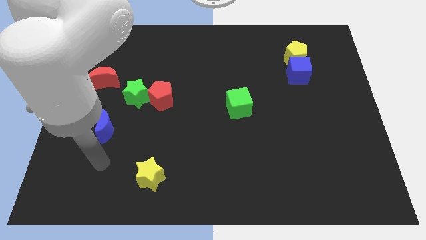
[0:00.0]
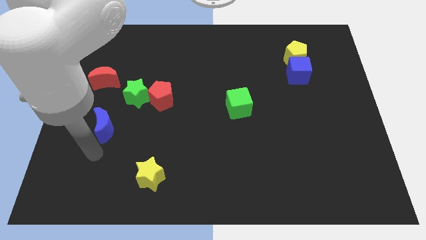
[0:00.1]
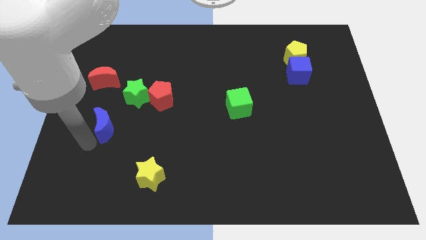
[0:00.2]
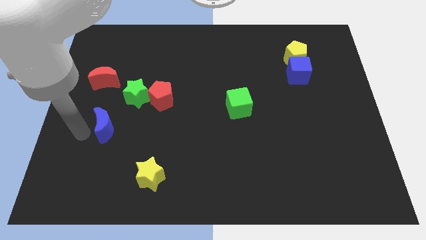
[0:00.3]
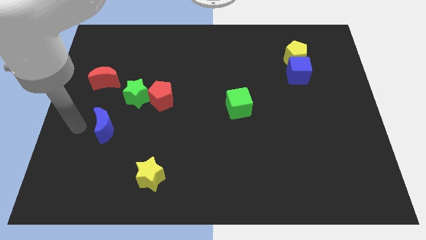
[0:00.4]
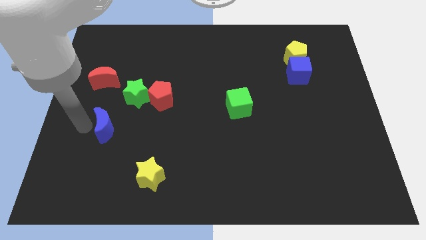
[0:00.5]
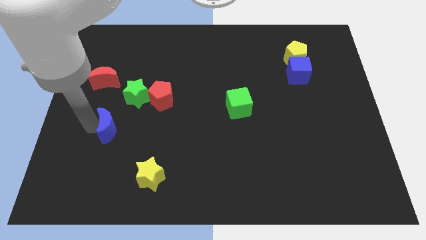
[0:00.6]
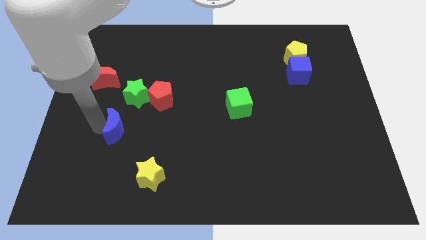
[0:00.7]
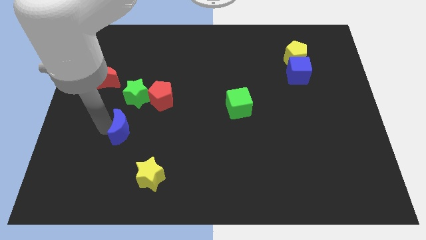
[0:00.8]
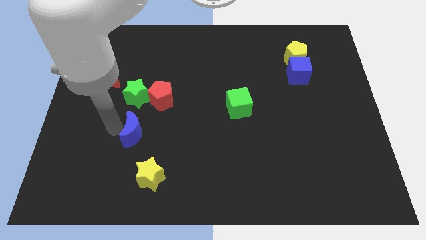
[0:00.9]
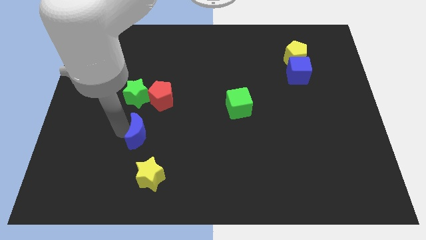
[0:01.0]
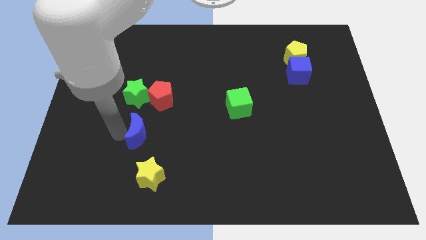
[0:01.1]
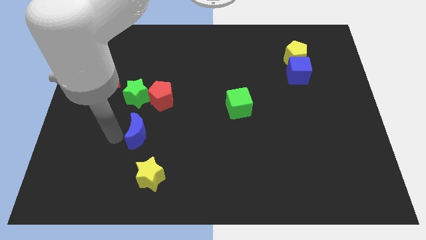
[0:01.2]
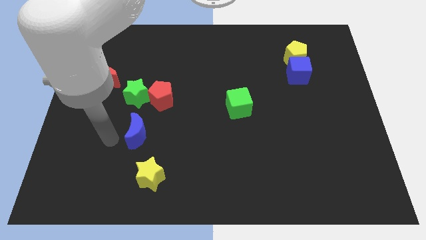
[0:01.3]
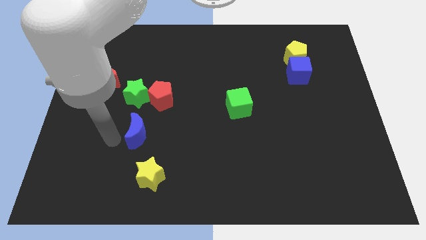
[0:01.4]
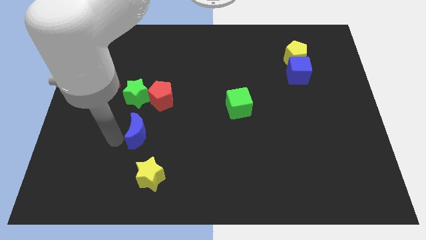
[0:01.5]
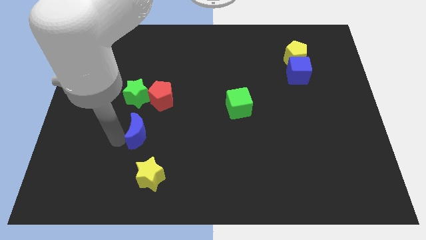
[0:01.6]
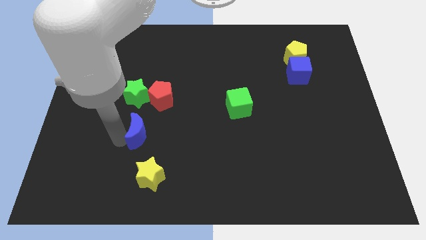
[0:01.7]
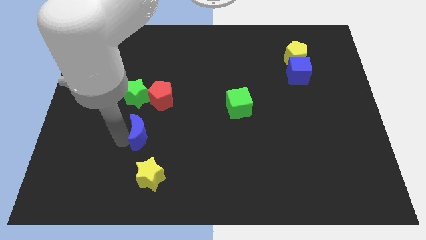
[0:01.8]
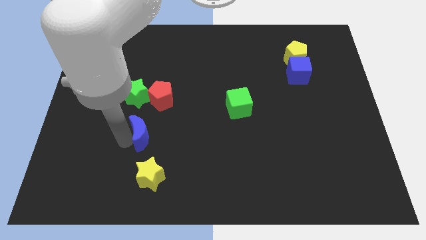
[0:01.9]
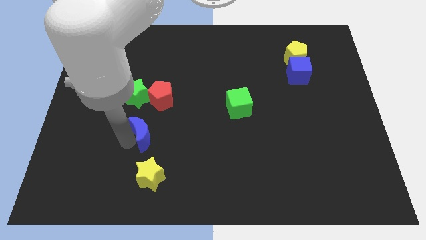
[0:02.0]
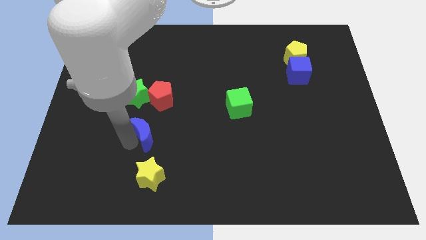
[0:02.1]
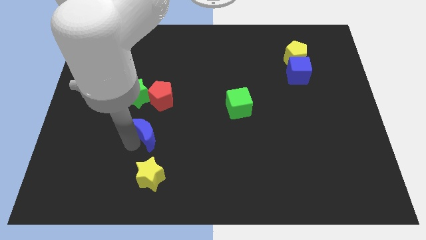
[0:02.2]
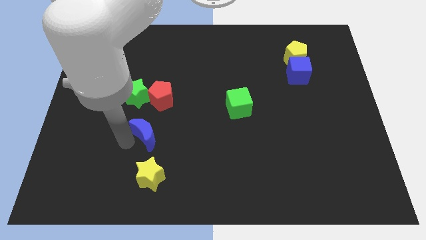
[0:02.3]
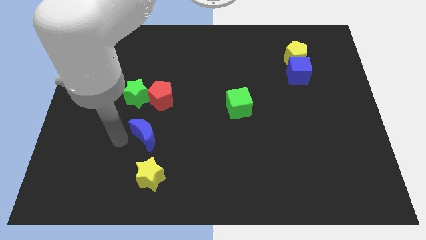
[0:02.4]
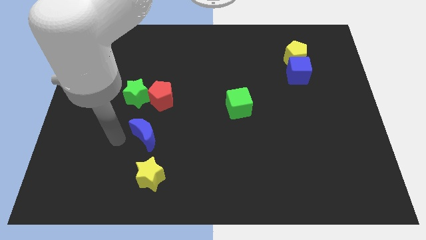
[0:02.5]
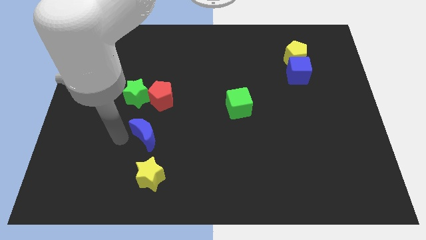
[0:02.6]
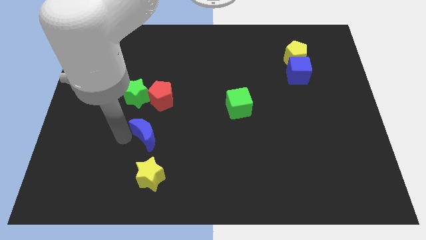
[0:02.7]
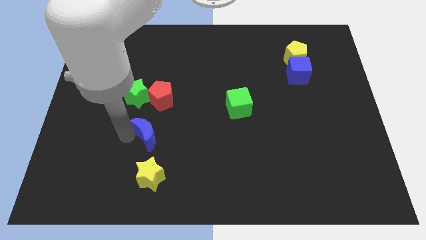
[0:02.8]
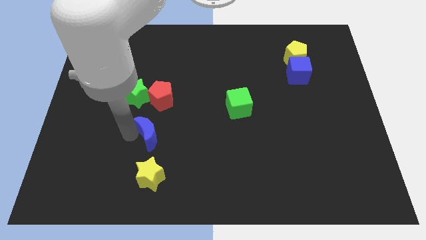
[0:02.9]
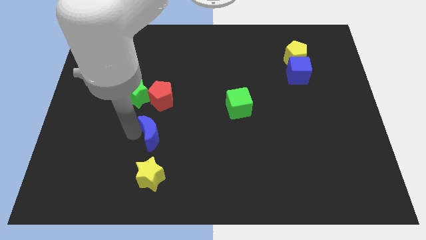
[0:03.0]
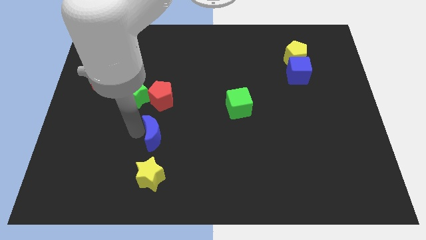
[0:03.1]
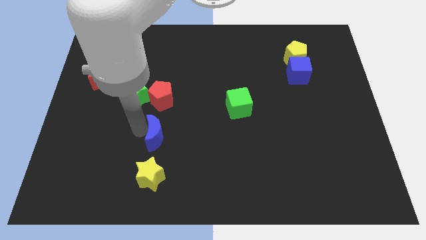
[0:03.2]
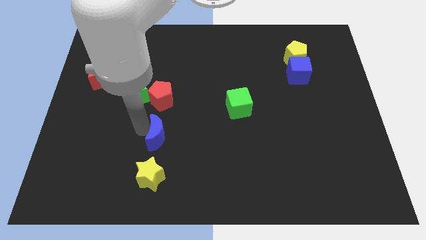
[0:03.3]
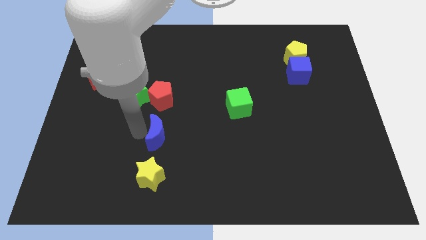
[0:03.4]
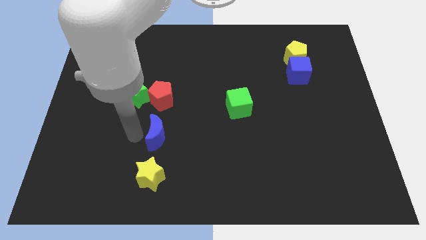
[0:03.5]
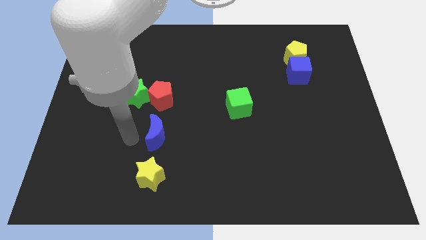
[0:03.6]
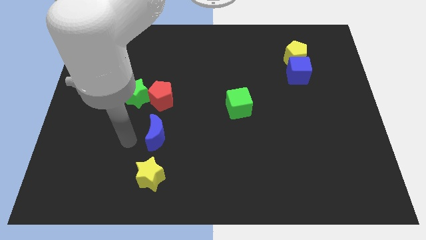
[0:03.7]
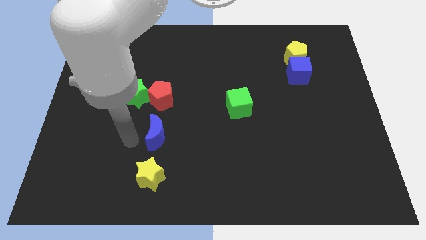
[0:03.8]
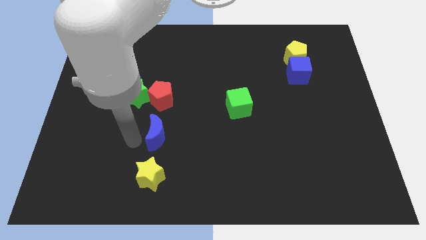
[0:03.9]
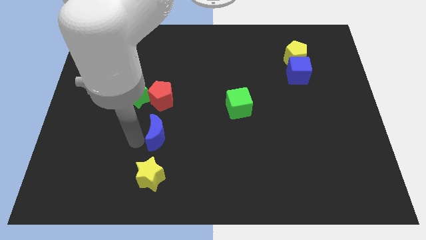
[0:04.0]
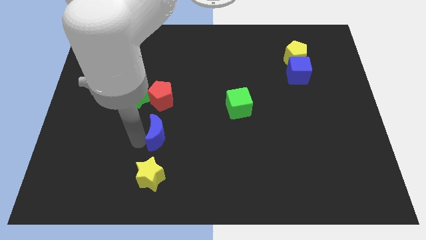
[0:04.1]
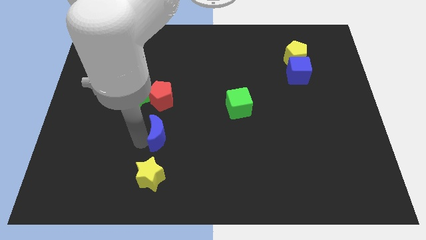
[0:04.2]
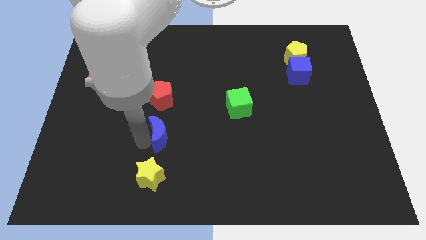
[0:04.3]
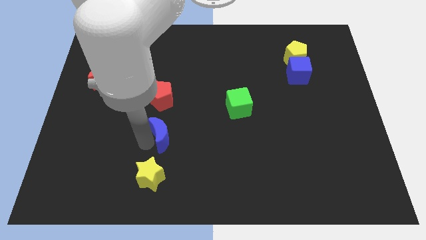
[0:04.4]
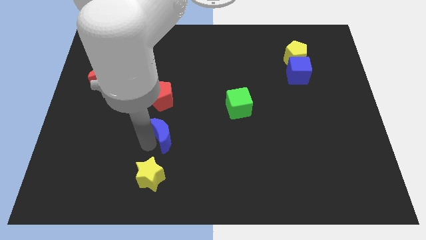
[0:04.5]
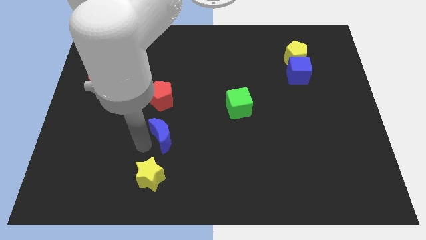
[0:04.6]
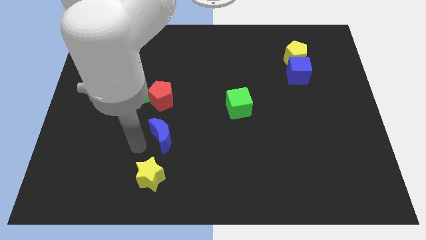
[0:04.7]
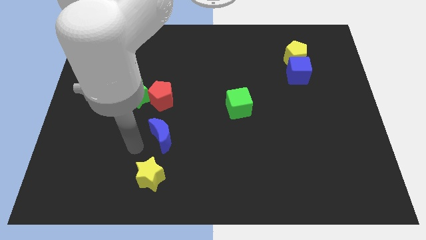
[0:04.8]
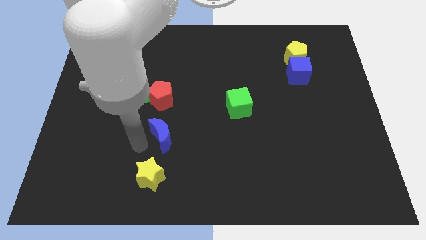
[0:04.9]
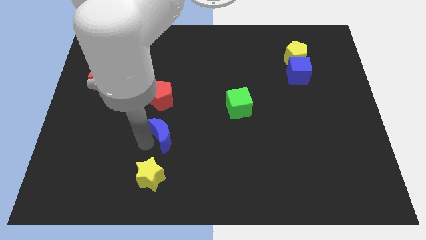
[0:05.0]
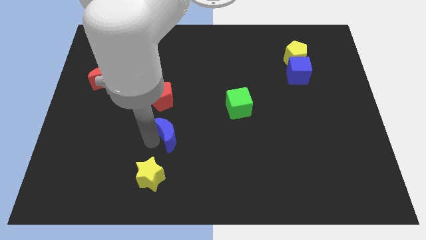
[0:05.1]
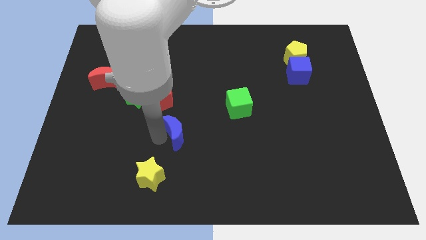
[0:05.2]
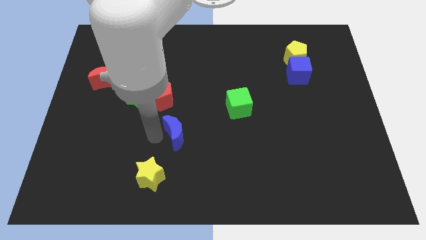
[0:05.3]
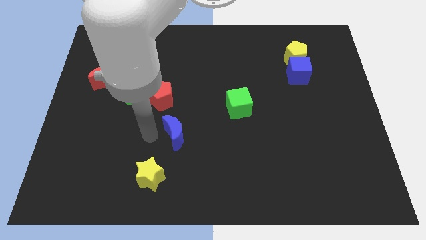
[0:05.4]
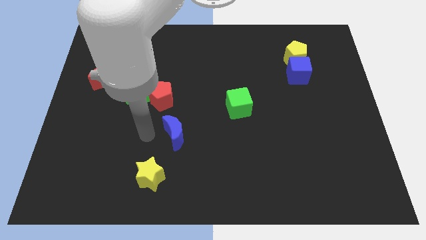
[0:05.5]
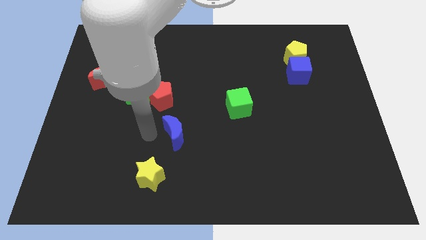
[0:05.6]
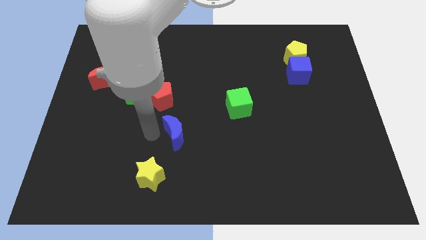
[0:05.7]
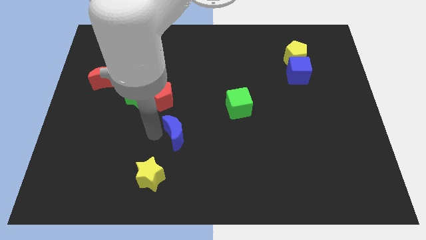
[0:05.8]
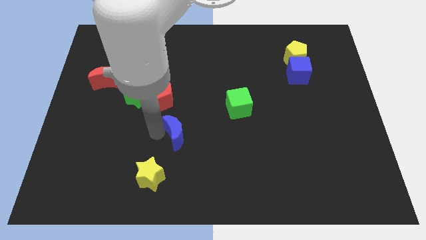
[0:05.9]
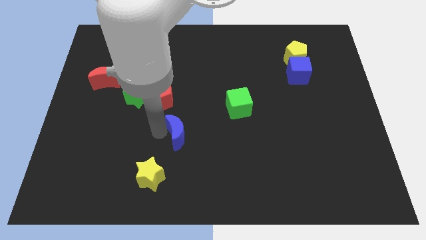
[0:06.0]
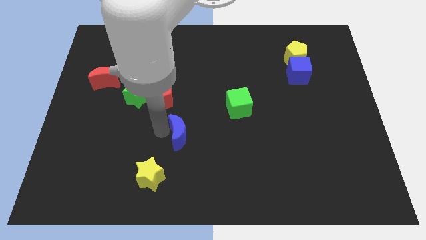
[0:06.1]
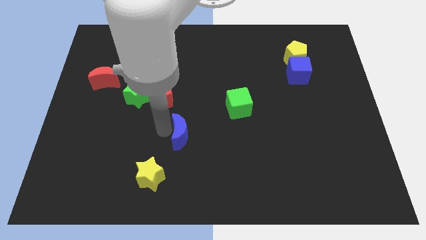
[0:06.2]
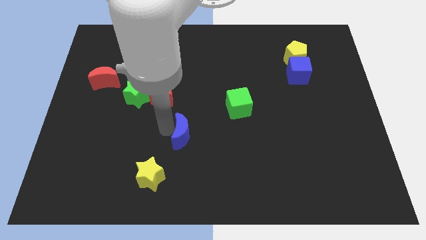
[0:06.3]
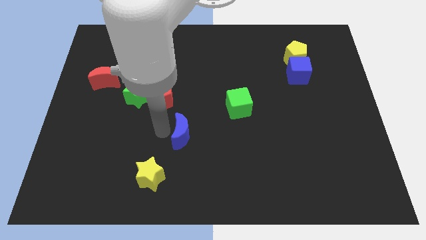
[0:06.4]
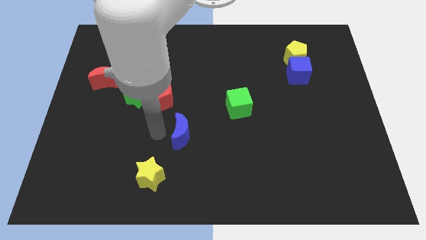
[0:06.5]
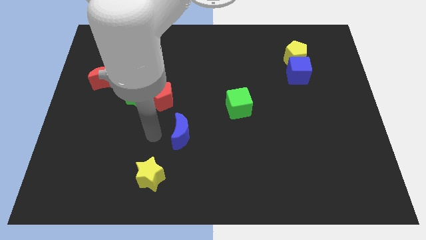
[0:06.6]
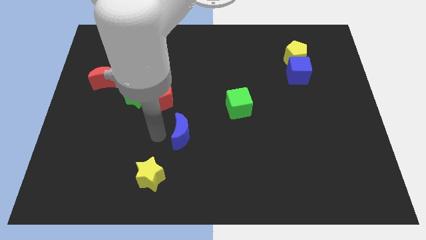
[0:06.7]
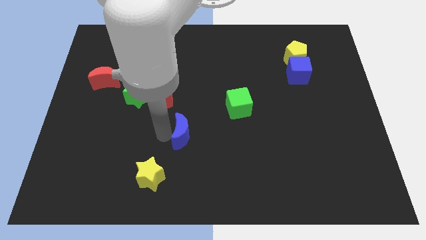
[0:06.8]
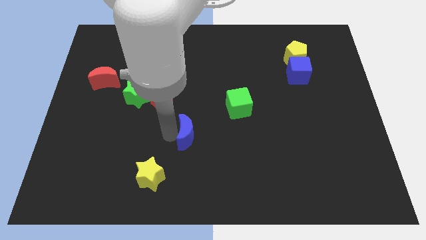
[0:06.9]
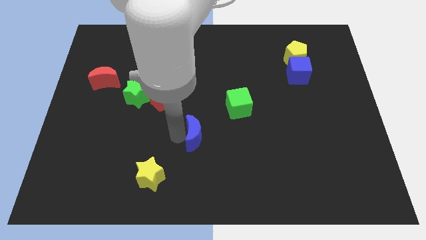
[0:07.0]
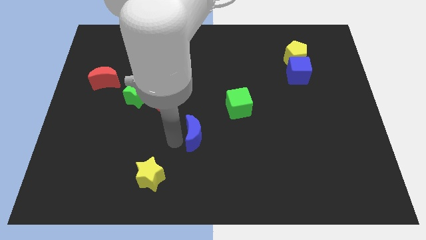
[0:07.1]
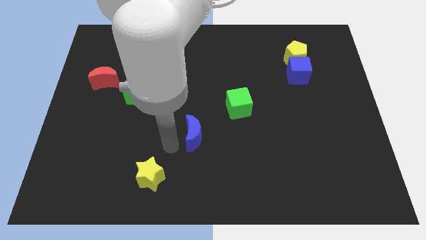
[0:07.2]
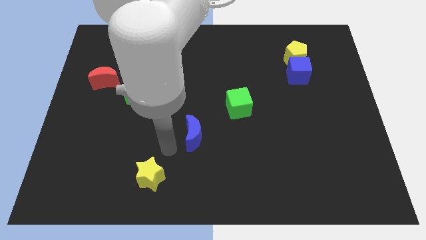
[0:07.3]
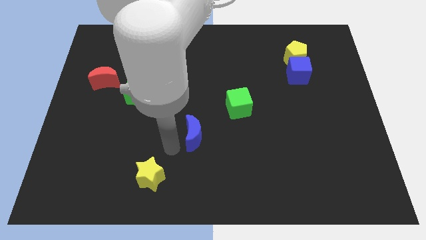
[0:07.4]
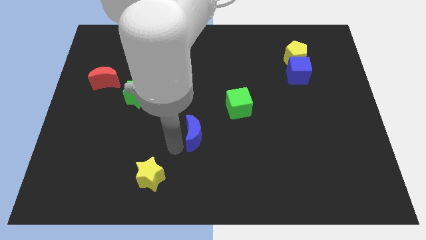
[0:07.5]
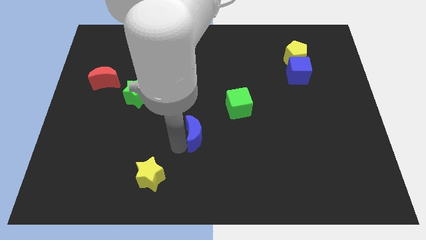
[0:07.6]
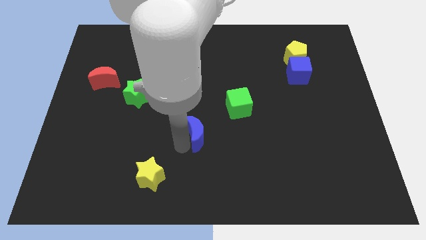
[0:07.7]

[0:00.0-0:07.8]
slide the blue moon diagonally down and to the left of the green cube
